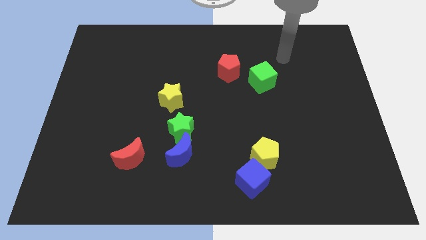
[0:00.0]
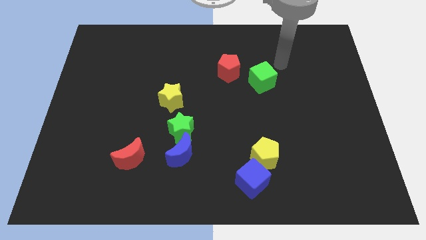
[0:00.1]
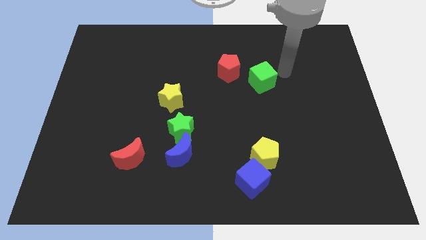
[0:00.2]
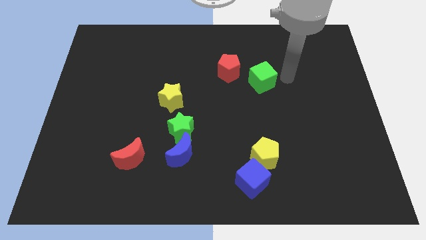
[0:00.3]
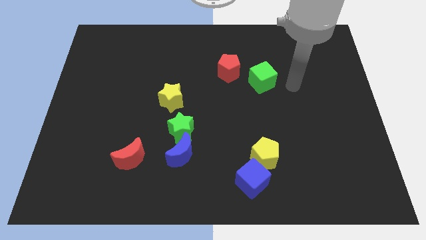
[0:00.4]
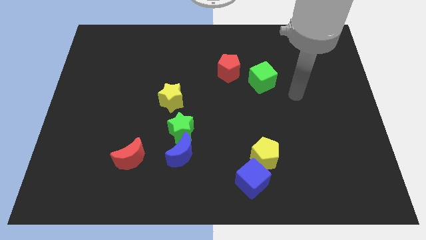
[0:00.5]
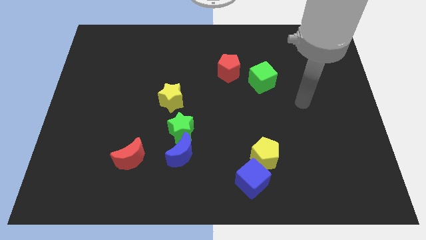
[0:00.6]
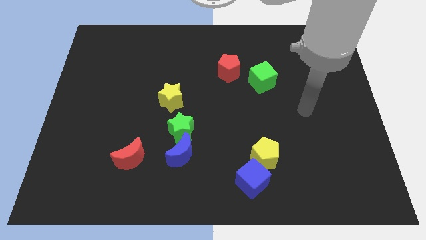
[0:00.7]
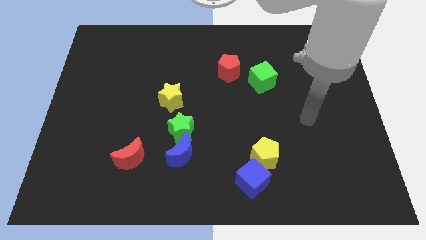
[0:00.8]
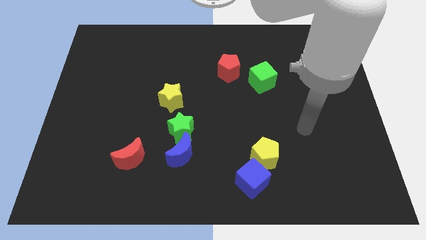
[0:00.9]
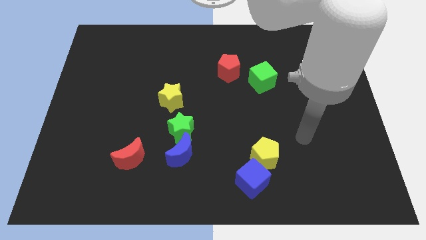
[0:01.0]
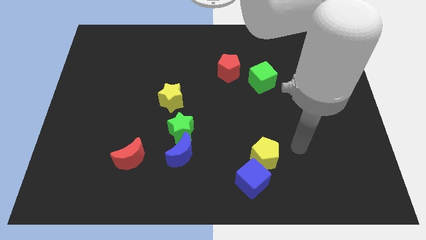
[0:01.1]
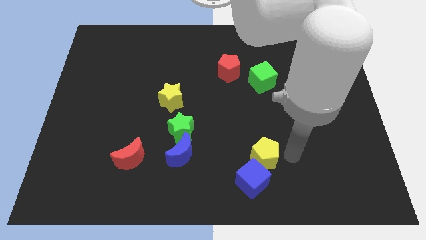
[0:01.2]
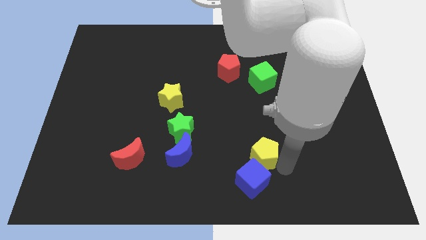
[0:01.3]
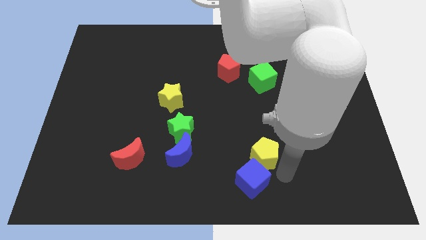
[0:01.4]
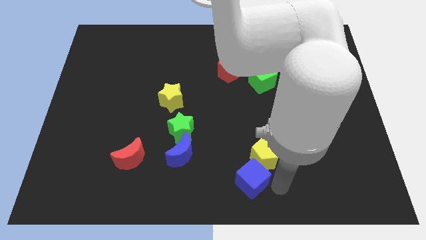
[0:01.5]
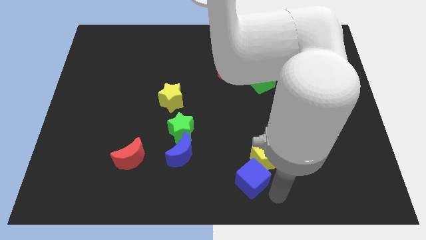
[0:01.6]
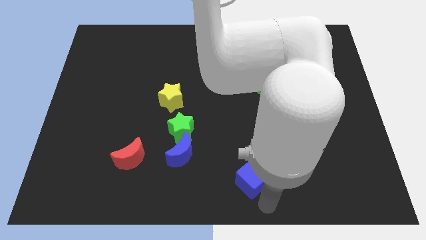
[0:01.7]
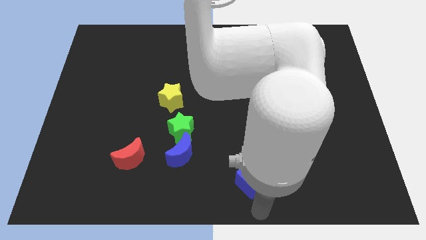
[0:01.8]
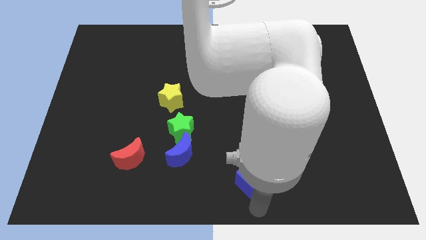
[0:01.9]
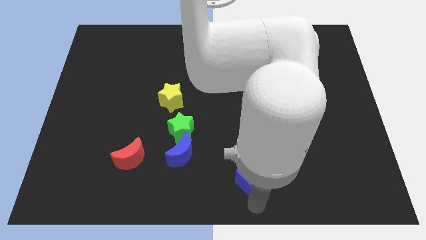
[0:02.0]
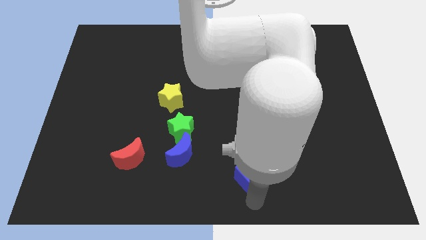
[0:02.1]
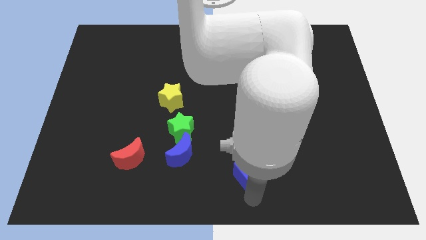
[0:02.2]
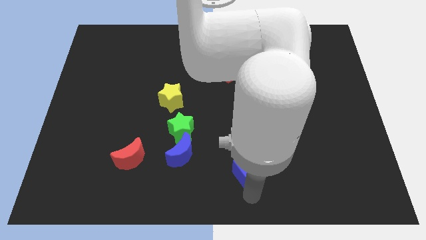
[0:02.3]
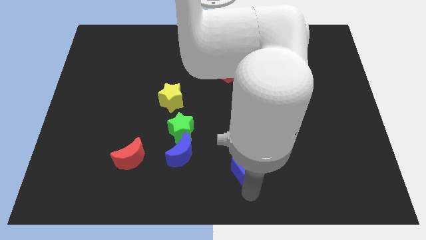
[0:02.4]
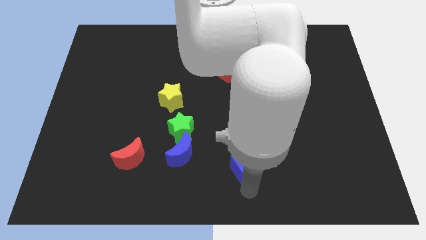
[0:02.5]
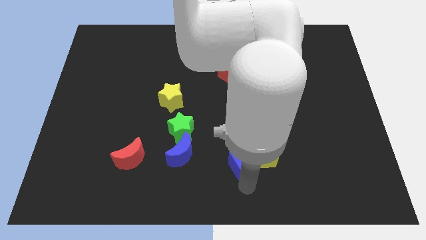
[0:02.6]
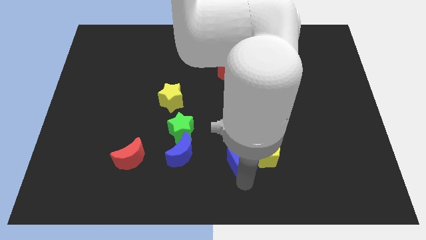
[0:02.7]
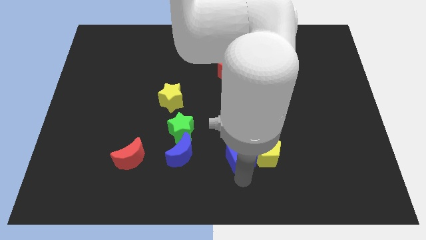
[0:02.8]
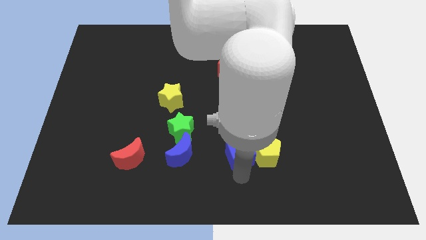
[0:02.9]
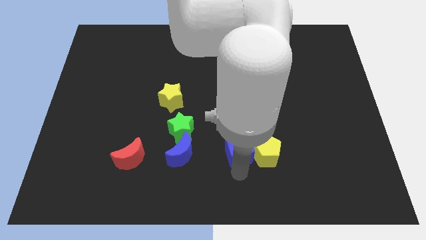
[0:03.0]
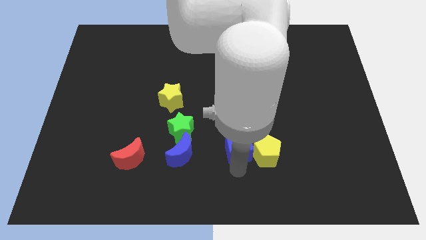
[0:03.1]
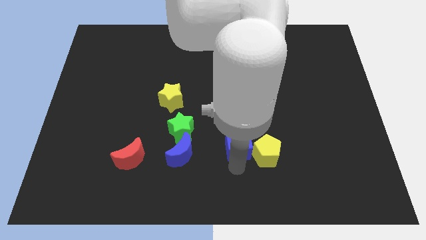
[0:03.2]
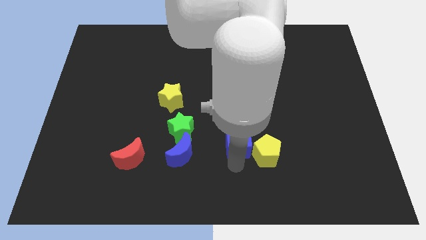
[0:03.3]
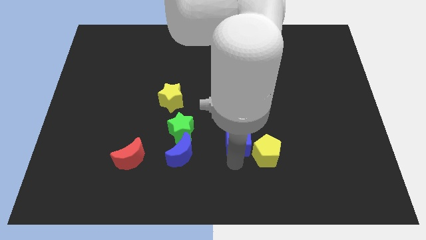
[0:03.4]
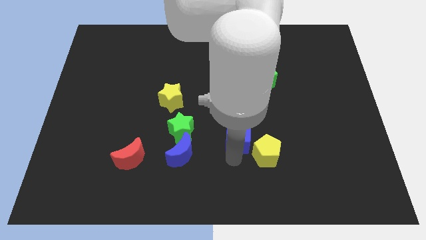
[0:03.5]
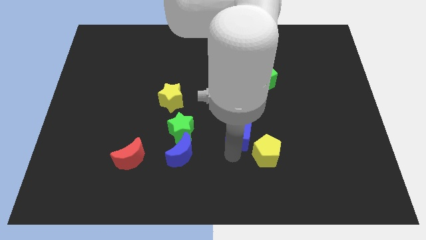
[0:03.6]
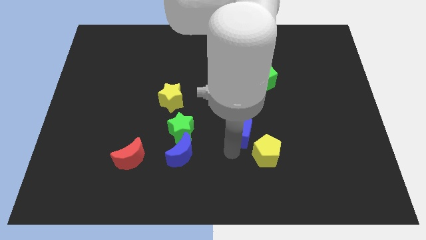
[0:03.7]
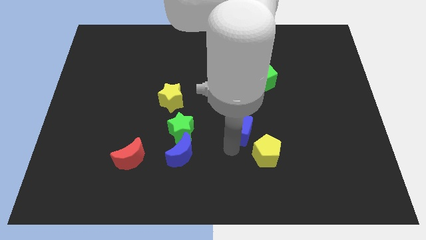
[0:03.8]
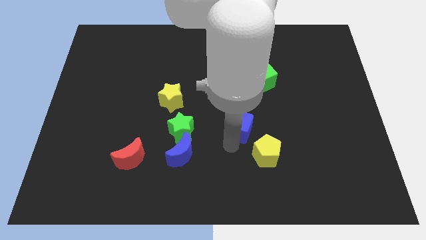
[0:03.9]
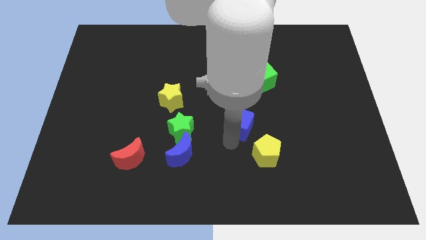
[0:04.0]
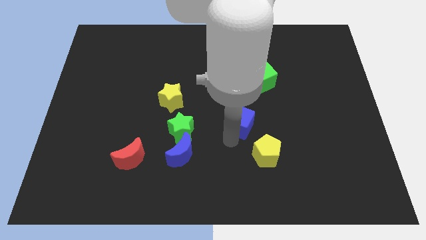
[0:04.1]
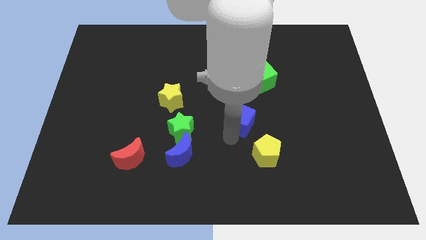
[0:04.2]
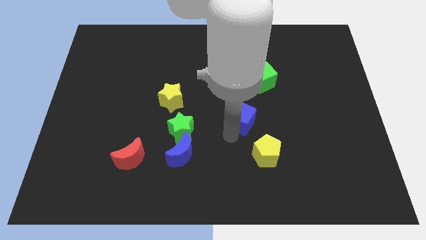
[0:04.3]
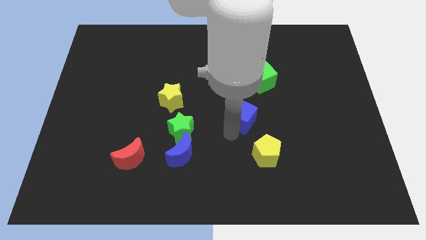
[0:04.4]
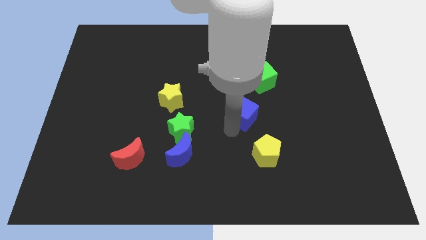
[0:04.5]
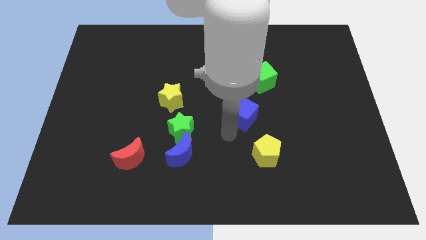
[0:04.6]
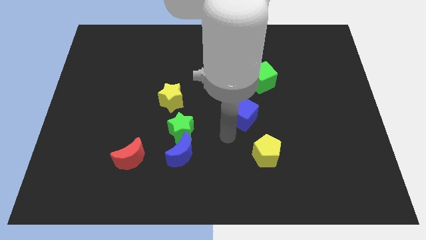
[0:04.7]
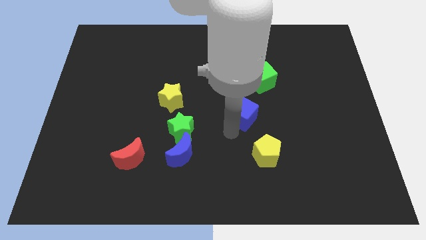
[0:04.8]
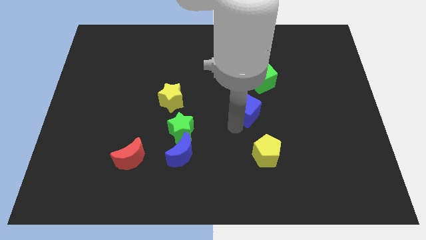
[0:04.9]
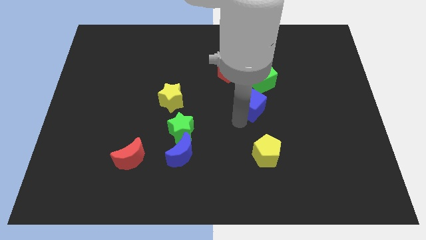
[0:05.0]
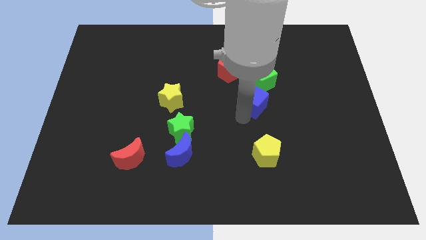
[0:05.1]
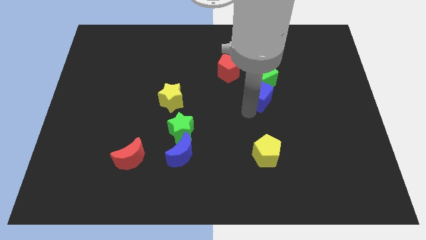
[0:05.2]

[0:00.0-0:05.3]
push the blue cube towards the green cube

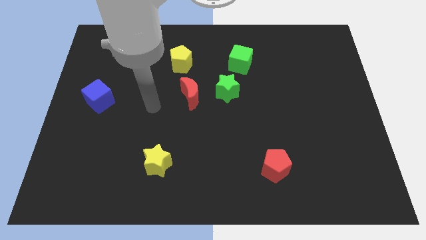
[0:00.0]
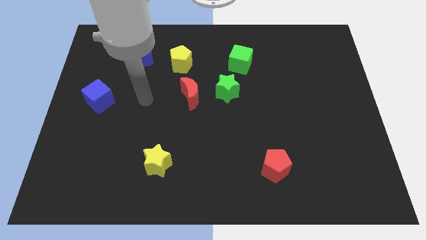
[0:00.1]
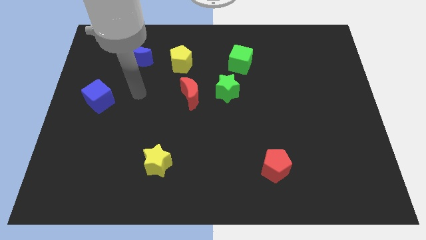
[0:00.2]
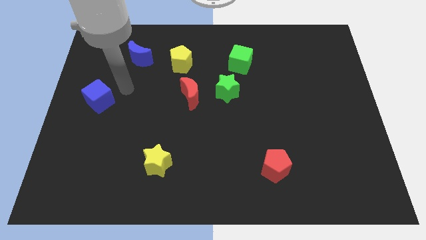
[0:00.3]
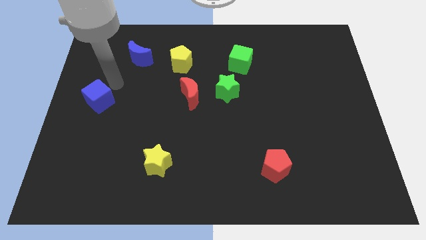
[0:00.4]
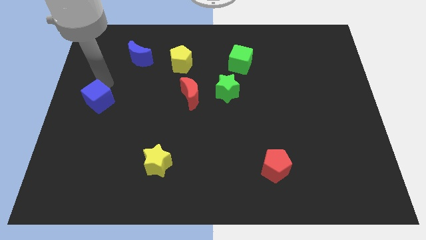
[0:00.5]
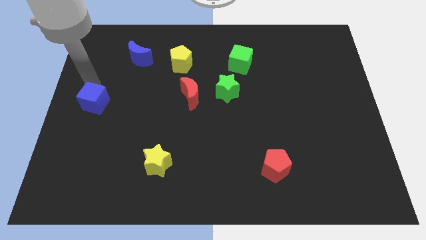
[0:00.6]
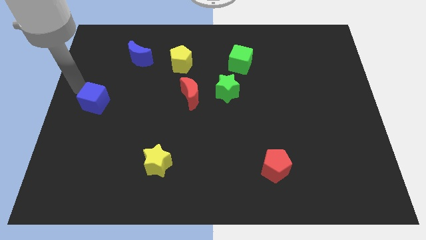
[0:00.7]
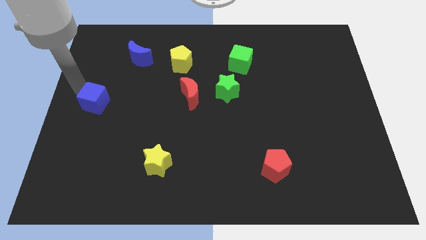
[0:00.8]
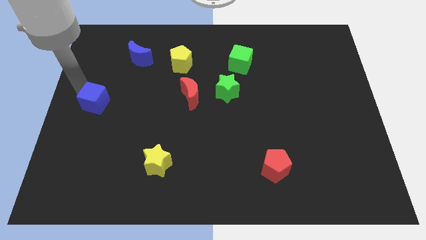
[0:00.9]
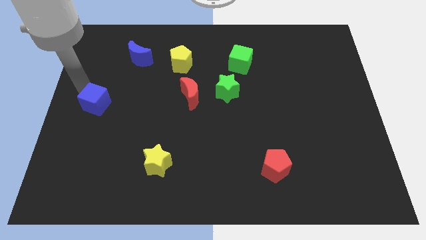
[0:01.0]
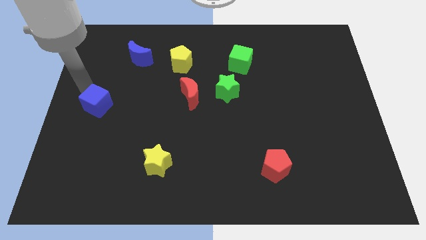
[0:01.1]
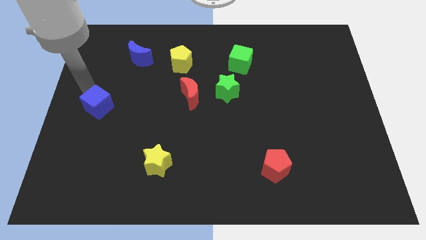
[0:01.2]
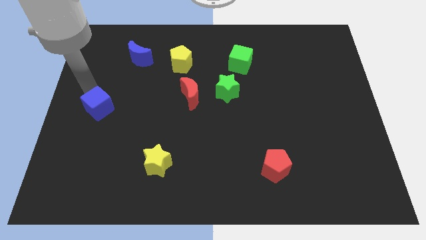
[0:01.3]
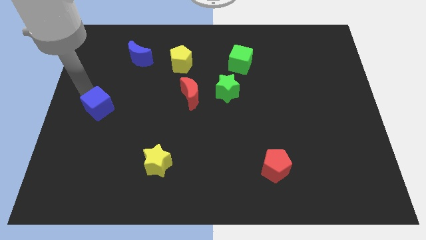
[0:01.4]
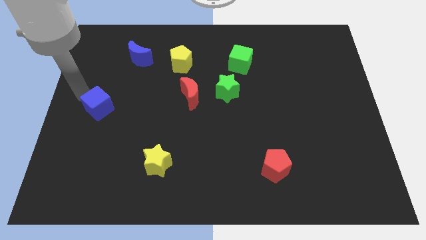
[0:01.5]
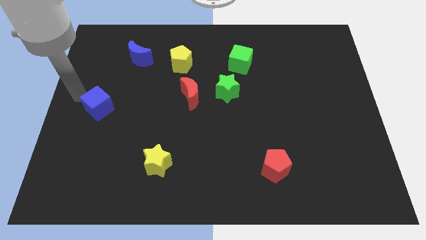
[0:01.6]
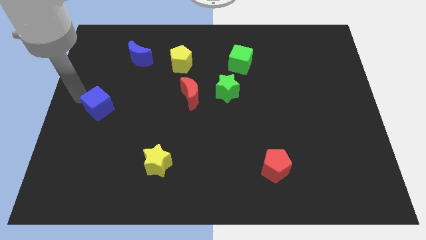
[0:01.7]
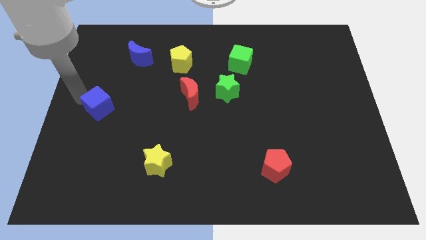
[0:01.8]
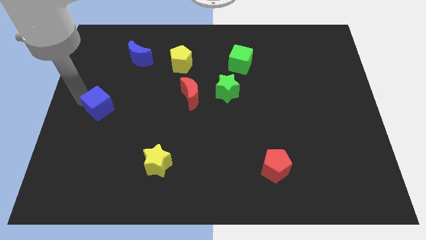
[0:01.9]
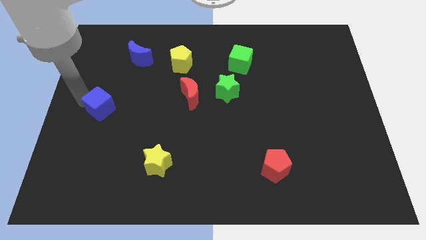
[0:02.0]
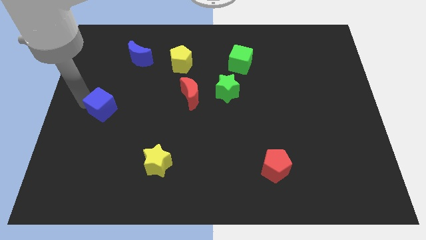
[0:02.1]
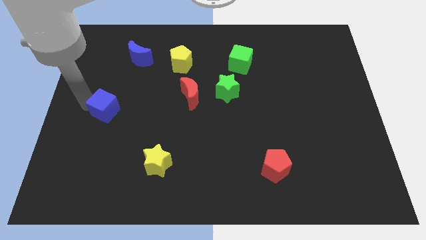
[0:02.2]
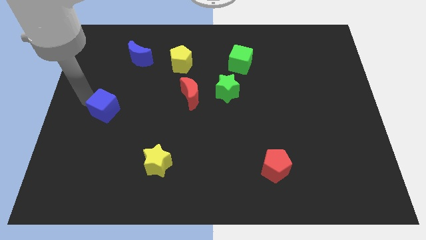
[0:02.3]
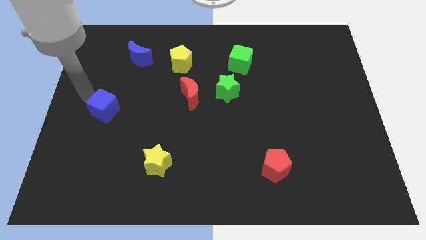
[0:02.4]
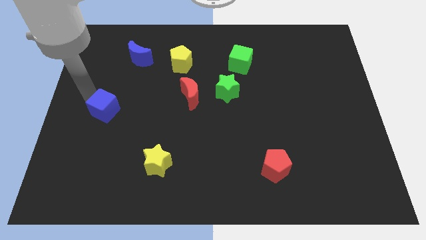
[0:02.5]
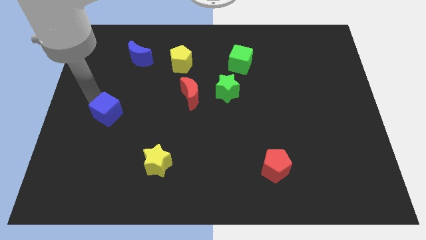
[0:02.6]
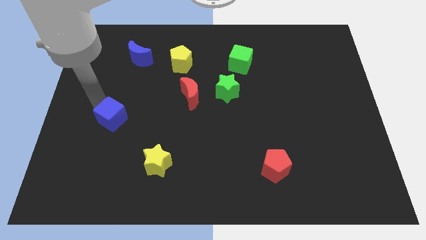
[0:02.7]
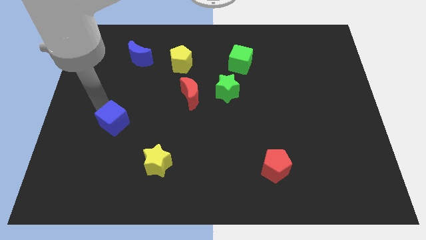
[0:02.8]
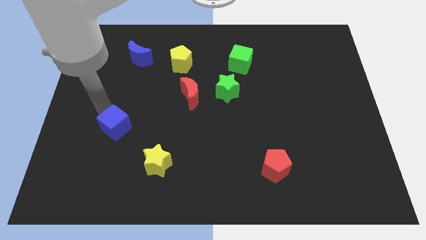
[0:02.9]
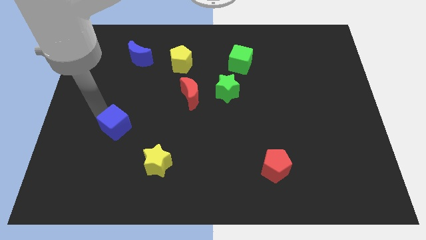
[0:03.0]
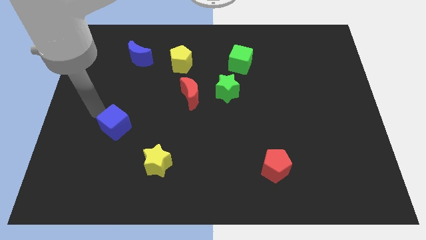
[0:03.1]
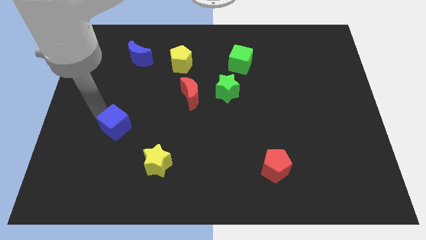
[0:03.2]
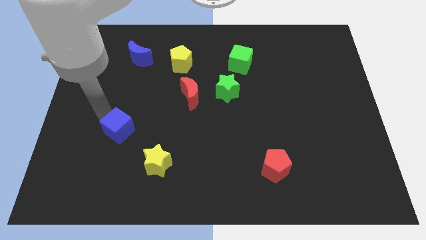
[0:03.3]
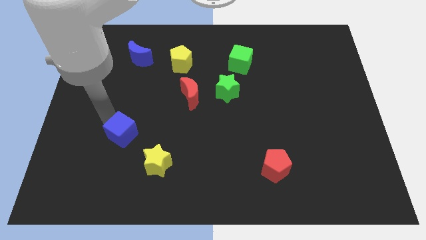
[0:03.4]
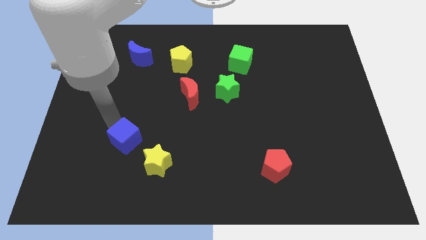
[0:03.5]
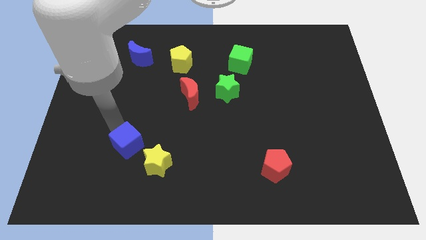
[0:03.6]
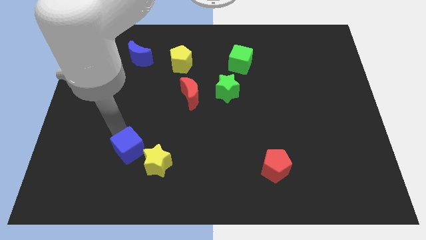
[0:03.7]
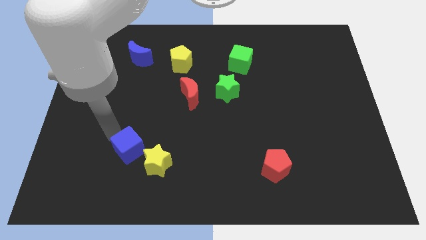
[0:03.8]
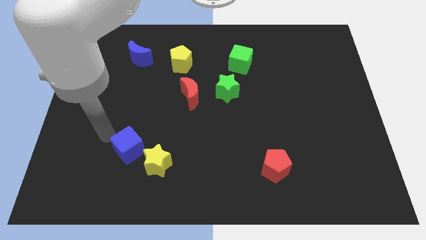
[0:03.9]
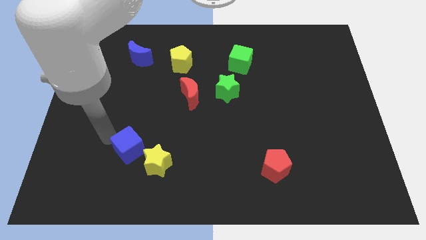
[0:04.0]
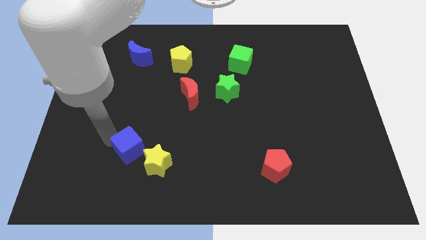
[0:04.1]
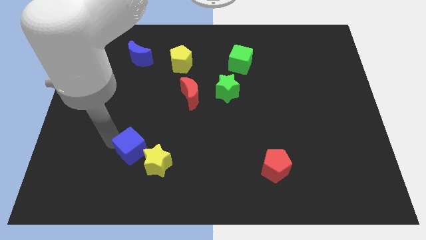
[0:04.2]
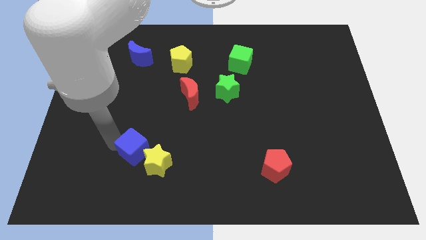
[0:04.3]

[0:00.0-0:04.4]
put the blue cube towards the yellow star
